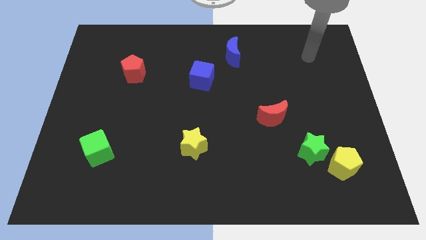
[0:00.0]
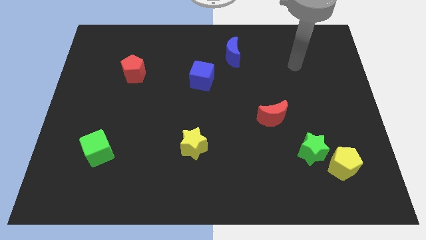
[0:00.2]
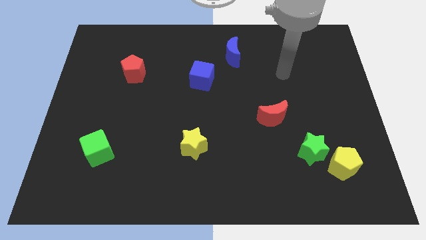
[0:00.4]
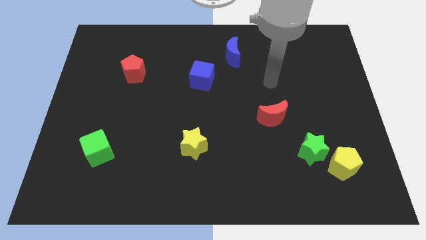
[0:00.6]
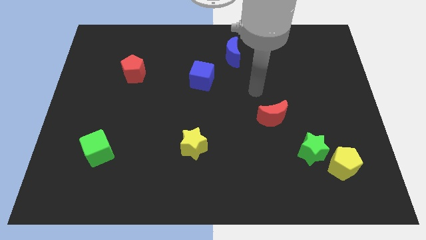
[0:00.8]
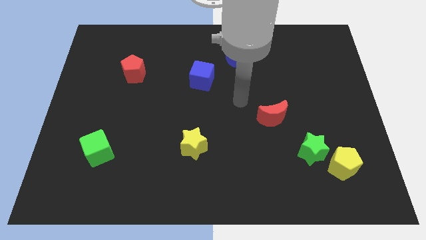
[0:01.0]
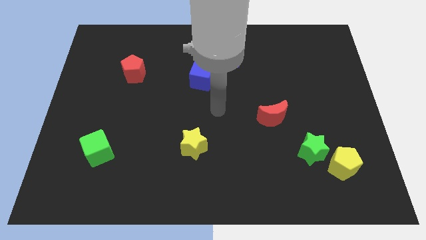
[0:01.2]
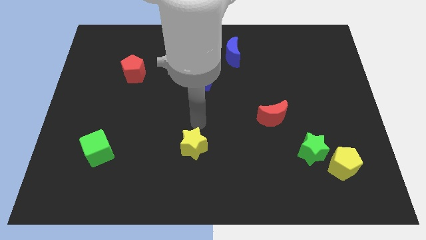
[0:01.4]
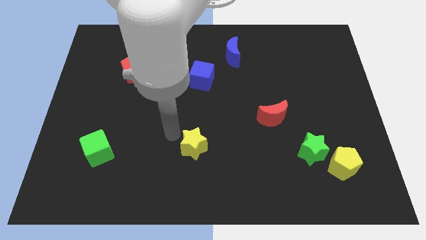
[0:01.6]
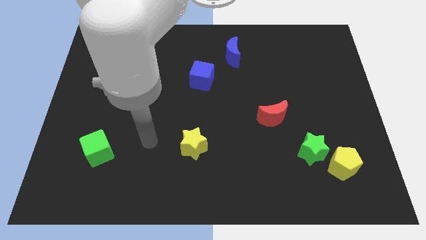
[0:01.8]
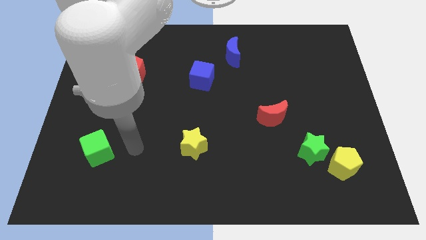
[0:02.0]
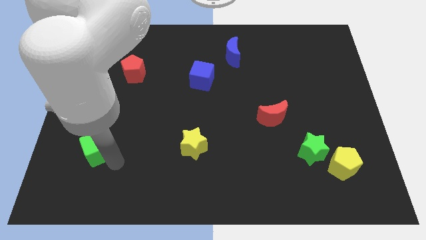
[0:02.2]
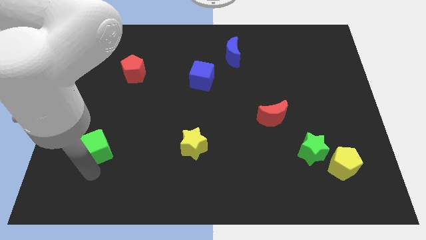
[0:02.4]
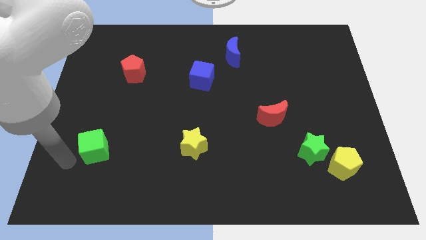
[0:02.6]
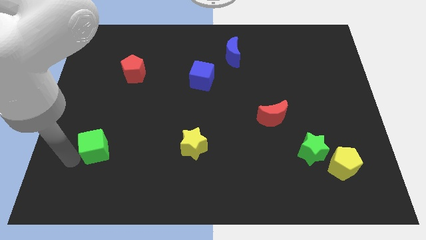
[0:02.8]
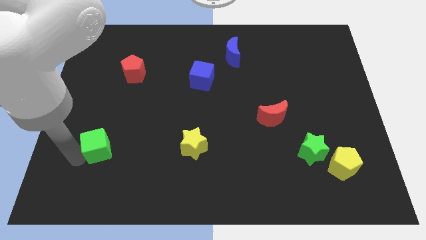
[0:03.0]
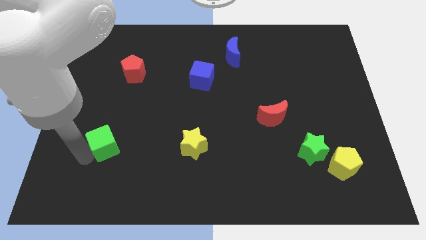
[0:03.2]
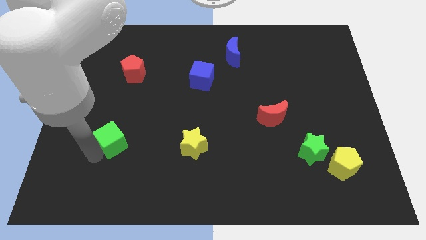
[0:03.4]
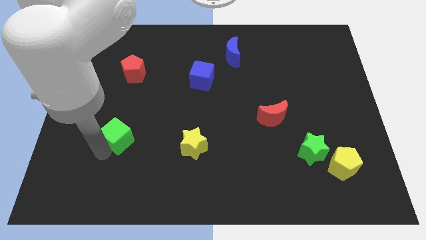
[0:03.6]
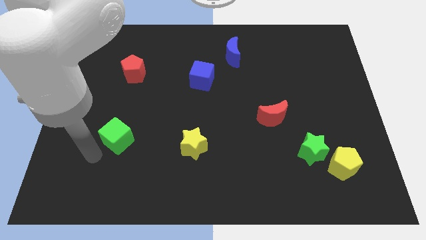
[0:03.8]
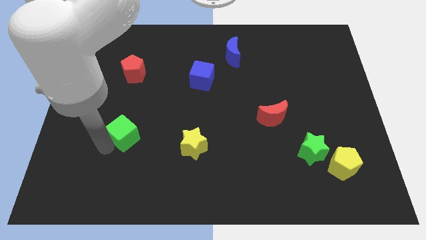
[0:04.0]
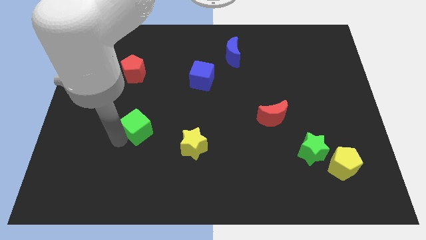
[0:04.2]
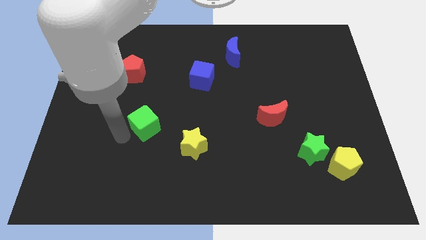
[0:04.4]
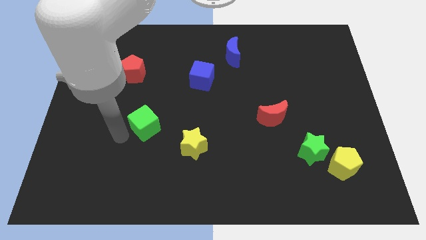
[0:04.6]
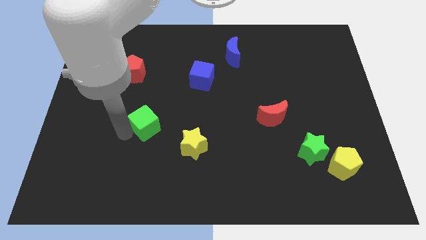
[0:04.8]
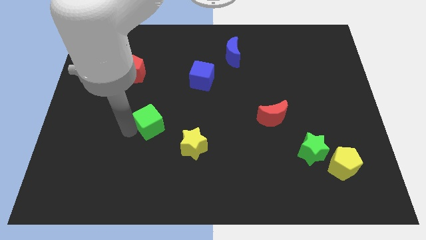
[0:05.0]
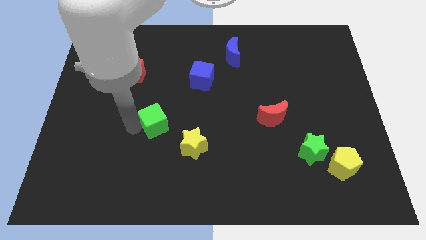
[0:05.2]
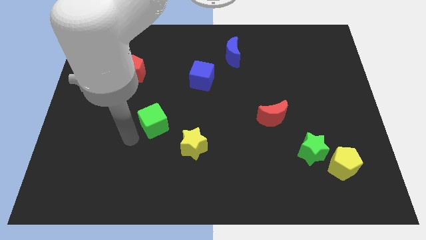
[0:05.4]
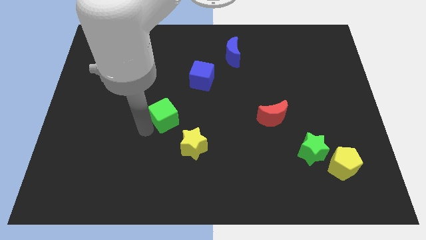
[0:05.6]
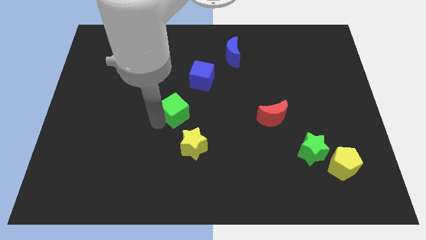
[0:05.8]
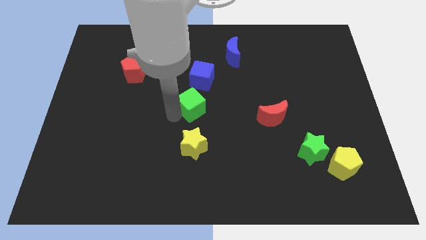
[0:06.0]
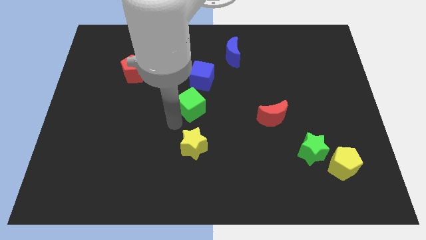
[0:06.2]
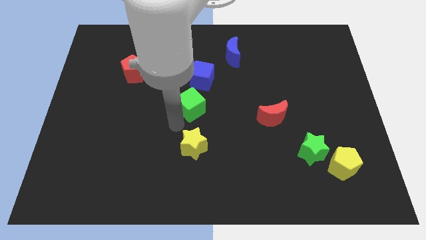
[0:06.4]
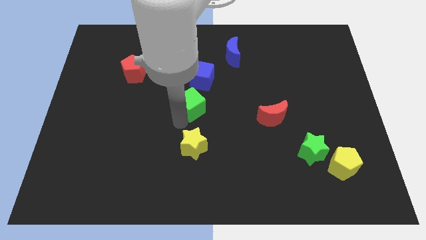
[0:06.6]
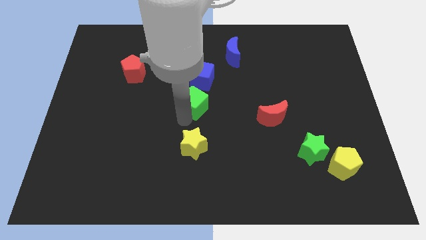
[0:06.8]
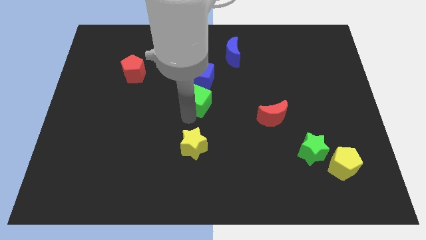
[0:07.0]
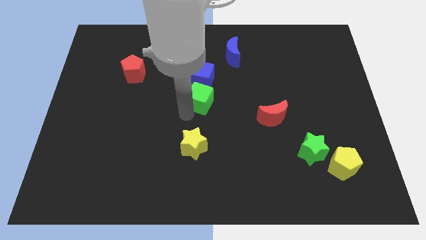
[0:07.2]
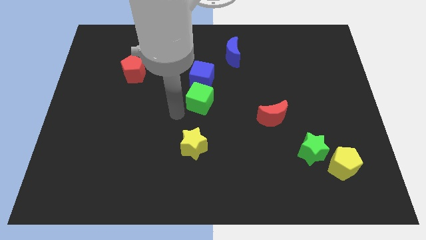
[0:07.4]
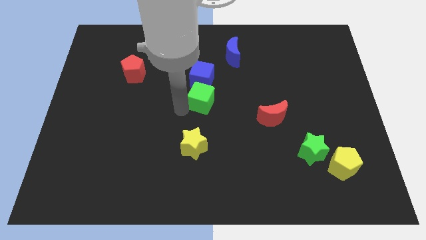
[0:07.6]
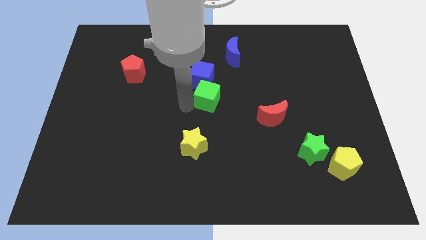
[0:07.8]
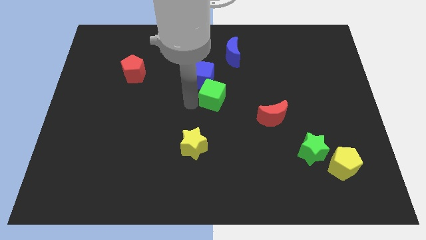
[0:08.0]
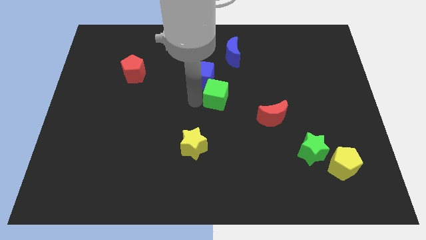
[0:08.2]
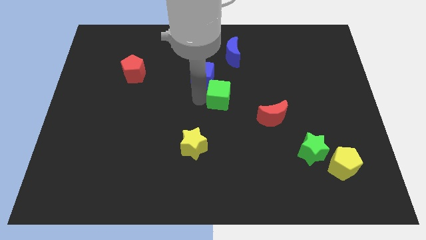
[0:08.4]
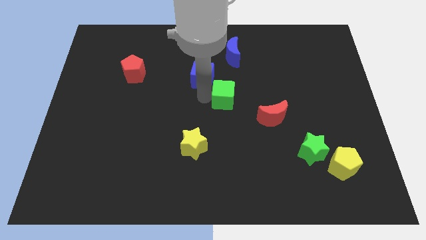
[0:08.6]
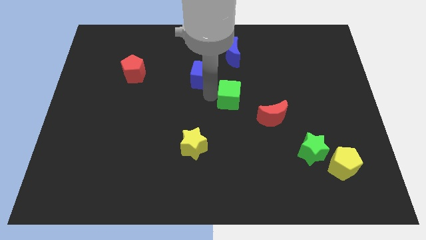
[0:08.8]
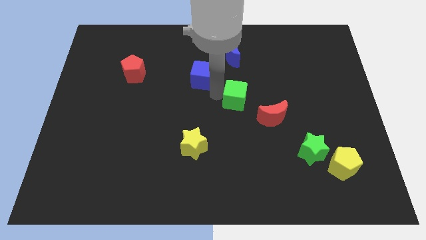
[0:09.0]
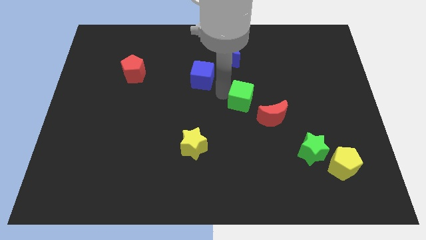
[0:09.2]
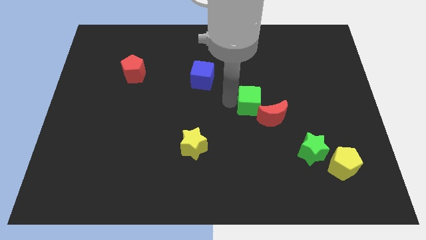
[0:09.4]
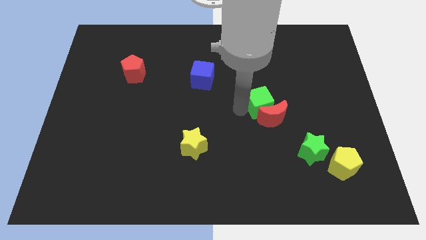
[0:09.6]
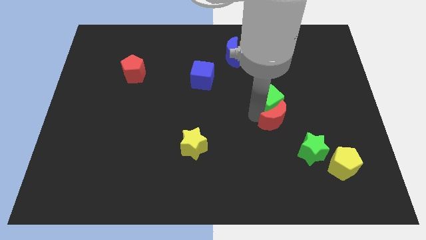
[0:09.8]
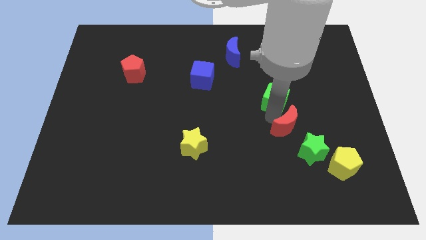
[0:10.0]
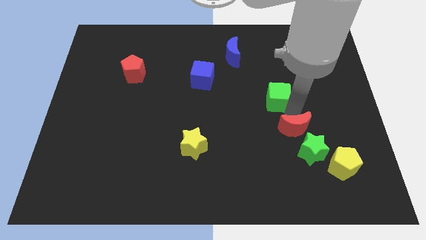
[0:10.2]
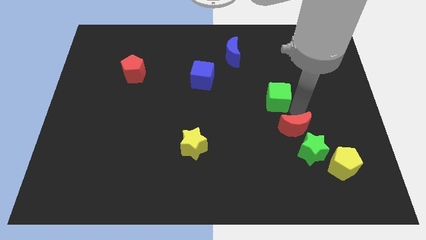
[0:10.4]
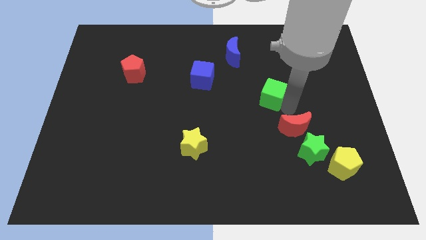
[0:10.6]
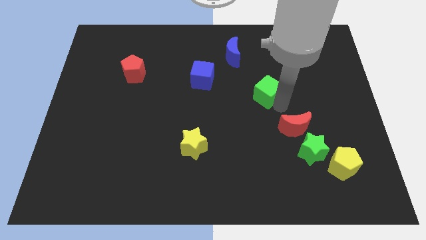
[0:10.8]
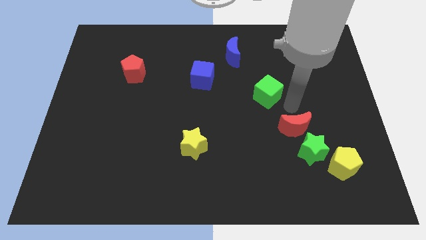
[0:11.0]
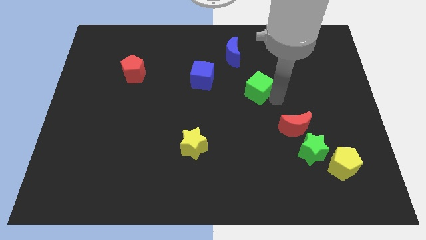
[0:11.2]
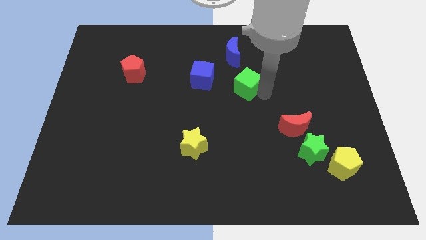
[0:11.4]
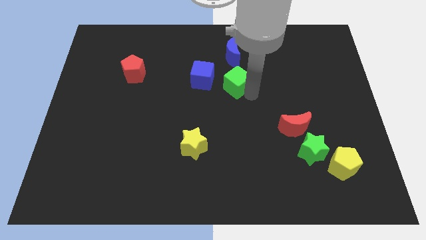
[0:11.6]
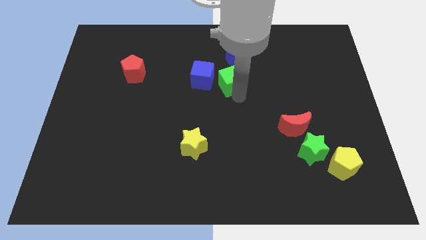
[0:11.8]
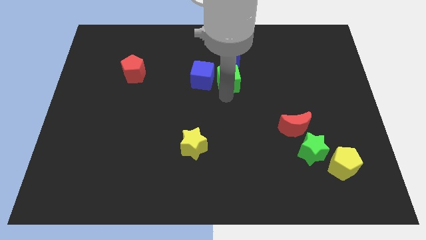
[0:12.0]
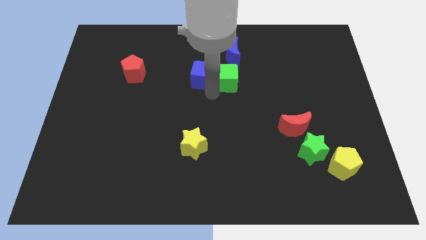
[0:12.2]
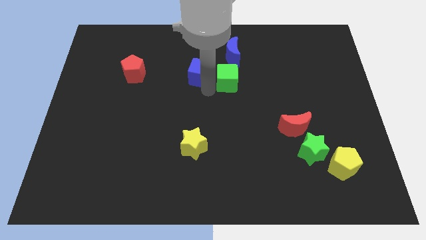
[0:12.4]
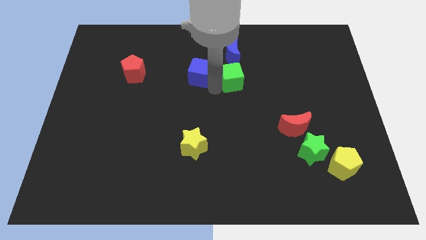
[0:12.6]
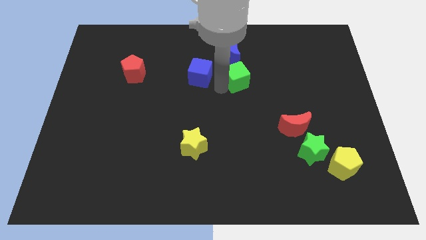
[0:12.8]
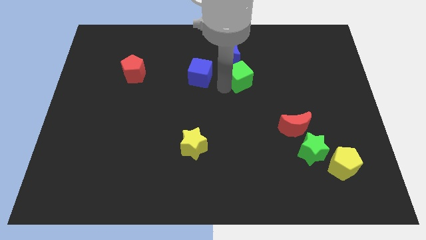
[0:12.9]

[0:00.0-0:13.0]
push the green cube to the bottom right side of the blue moon

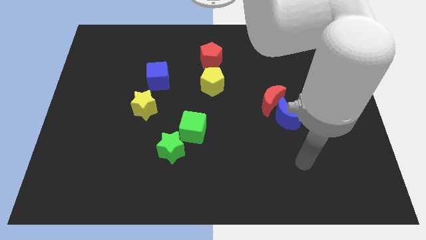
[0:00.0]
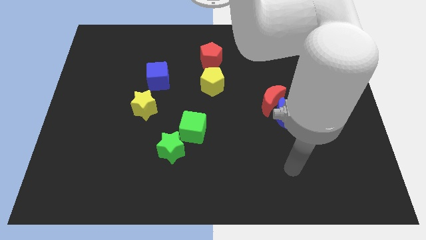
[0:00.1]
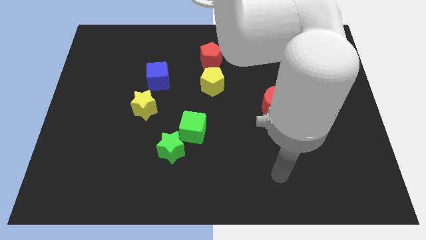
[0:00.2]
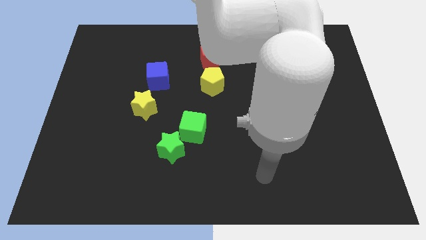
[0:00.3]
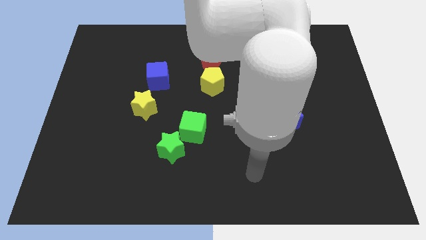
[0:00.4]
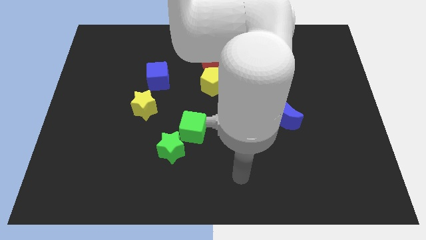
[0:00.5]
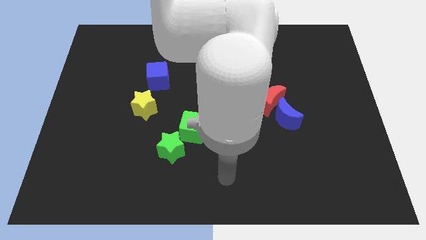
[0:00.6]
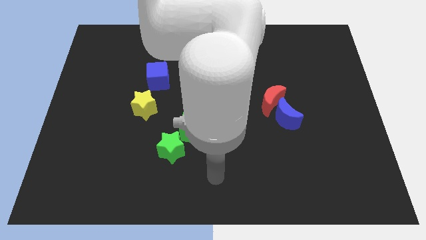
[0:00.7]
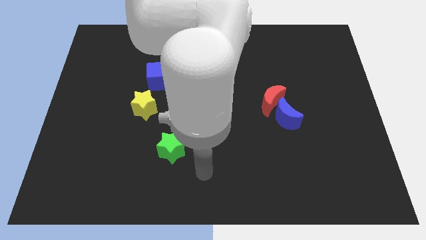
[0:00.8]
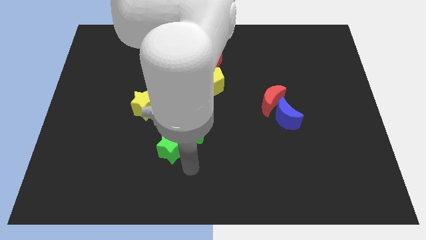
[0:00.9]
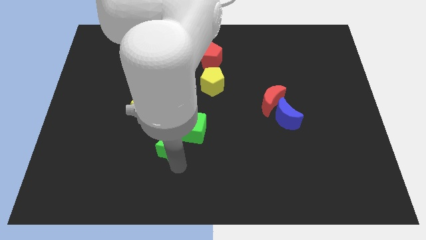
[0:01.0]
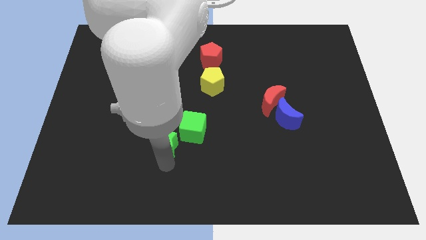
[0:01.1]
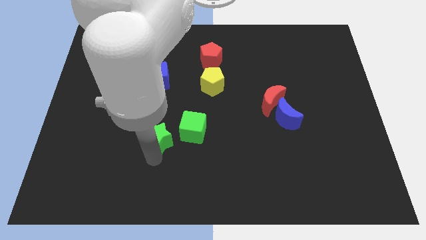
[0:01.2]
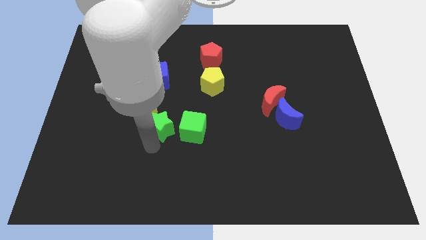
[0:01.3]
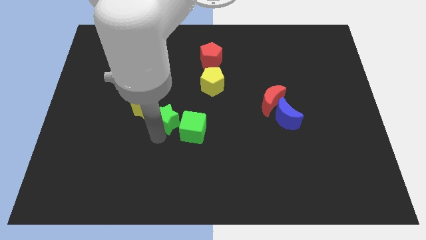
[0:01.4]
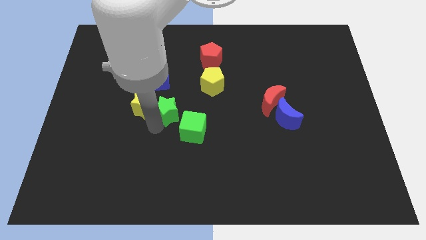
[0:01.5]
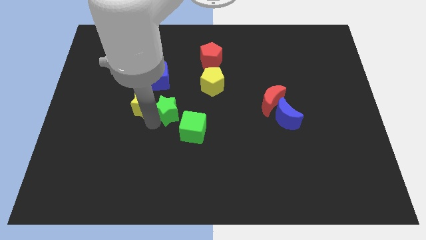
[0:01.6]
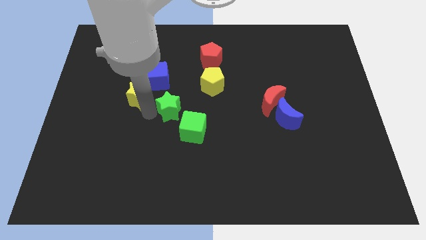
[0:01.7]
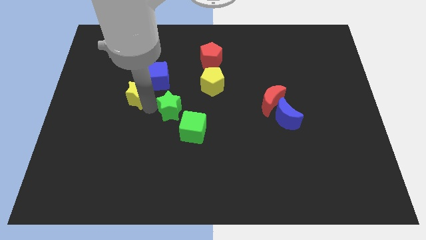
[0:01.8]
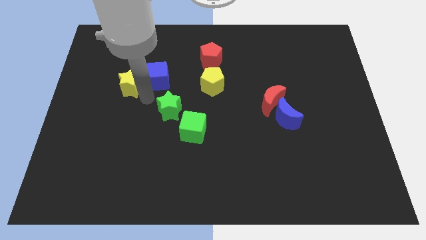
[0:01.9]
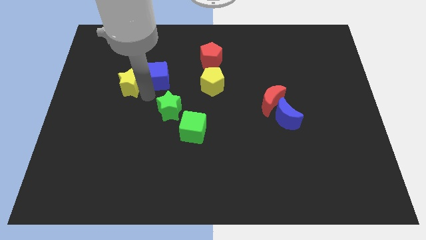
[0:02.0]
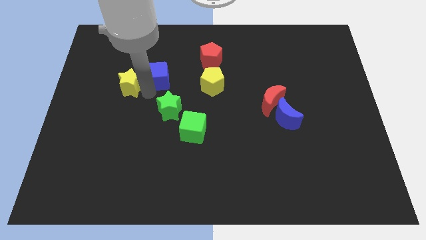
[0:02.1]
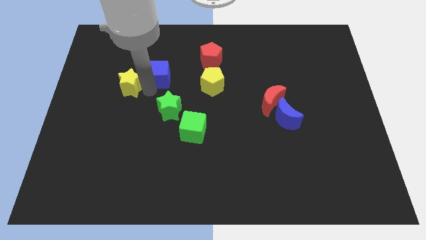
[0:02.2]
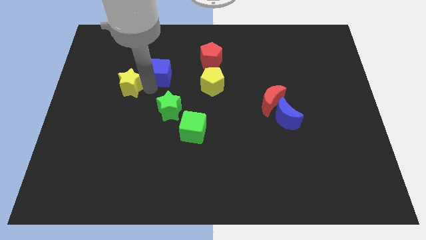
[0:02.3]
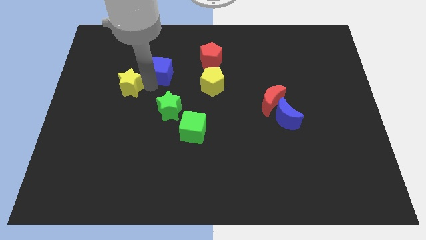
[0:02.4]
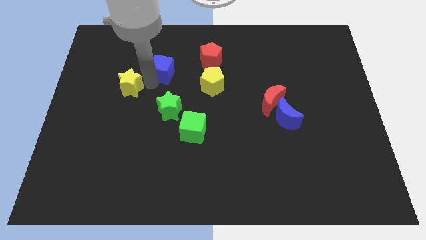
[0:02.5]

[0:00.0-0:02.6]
push the blue cube left of the red pentagon
